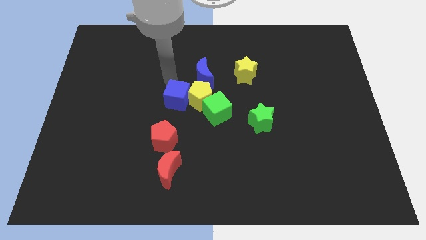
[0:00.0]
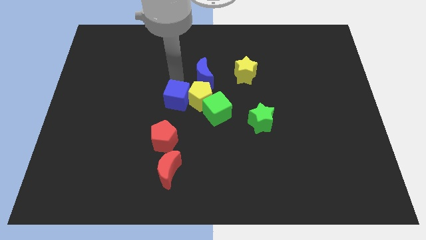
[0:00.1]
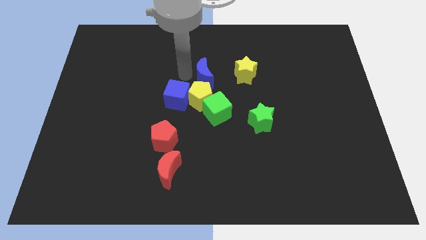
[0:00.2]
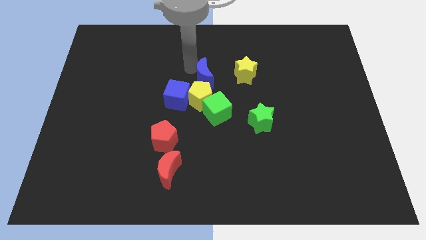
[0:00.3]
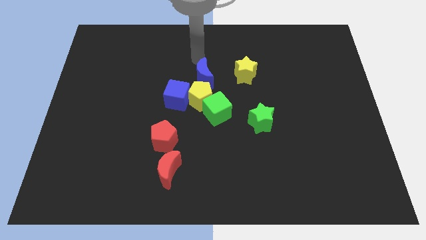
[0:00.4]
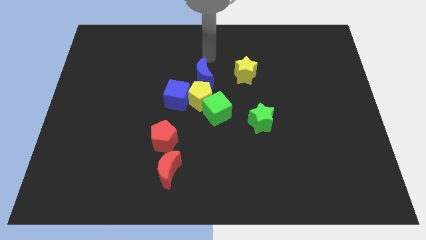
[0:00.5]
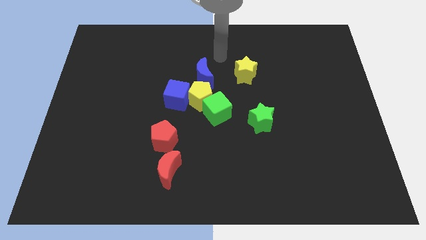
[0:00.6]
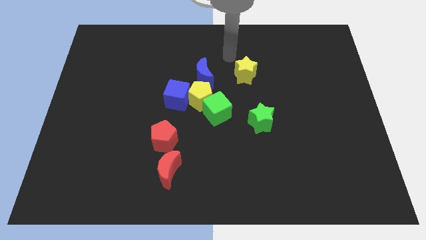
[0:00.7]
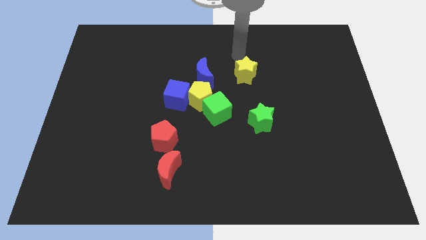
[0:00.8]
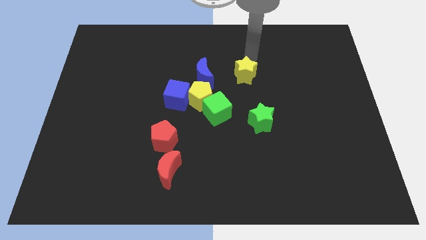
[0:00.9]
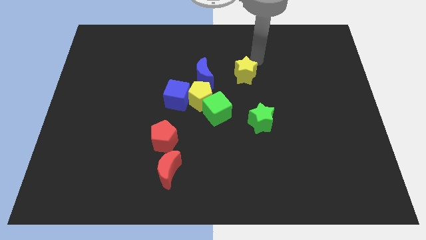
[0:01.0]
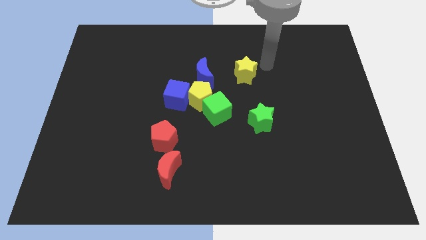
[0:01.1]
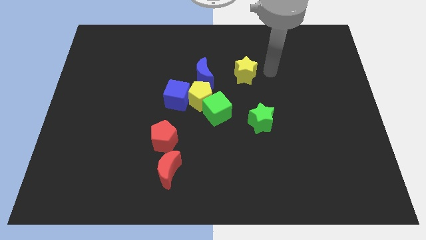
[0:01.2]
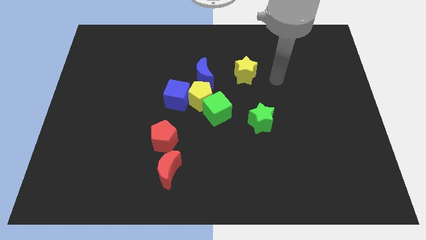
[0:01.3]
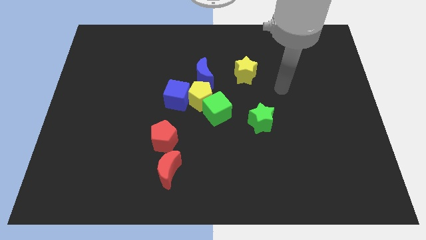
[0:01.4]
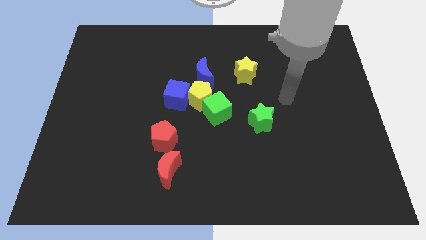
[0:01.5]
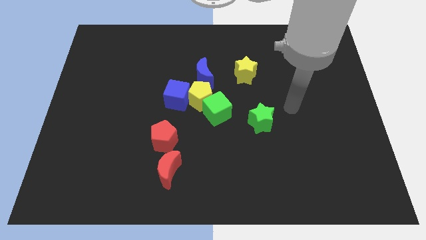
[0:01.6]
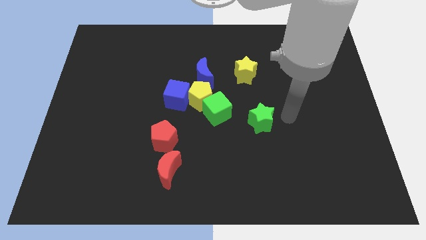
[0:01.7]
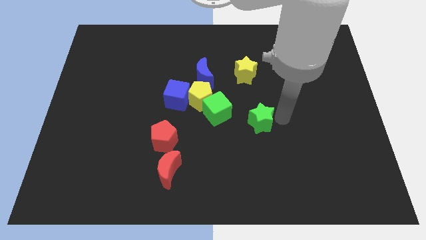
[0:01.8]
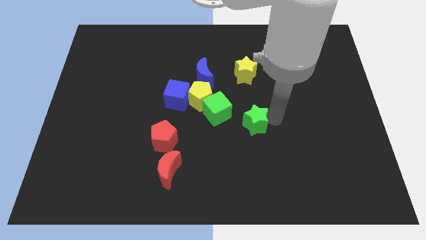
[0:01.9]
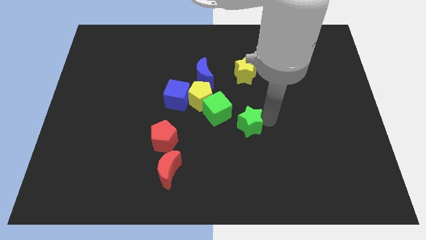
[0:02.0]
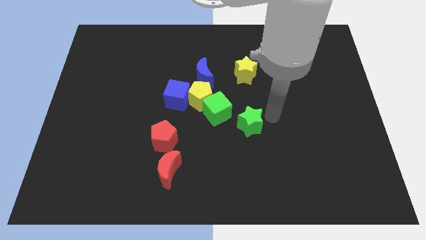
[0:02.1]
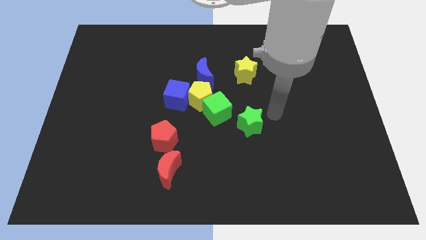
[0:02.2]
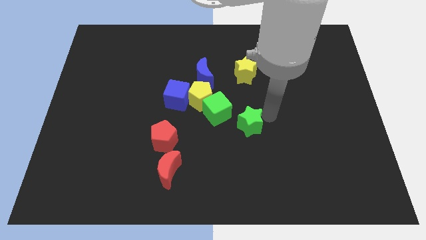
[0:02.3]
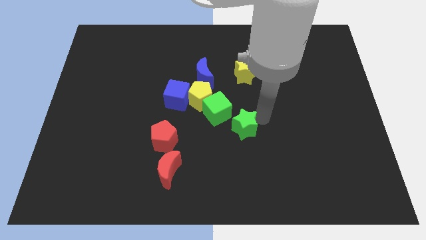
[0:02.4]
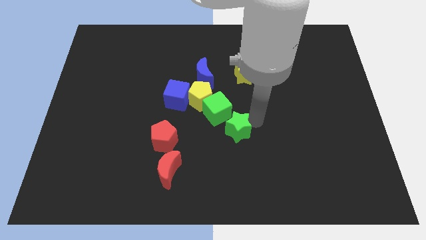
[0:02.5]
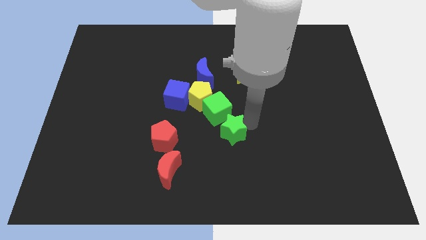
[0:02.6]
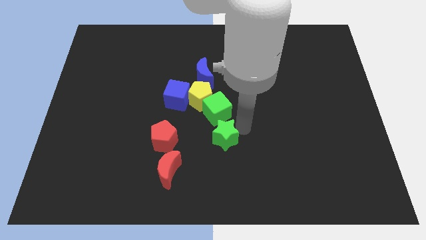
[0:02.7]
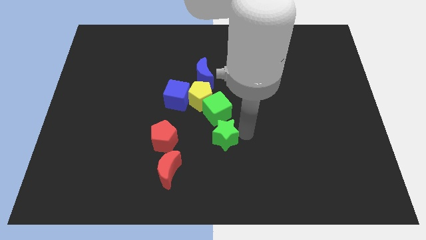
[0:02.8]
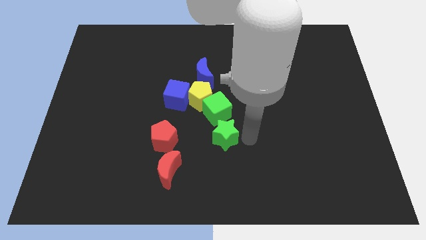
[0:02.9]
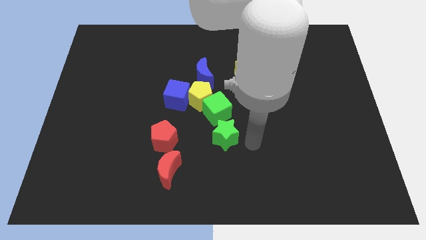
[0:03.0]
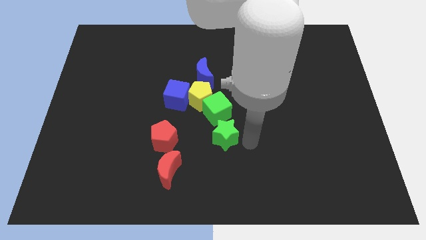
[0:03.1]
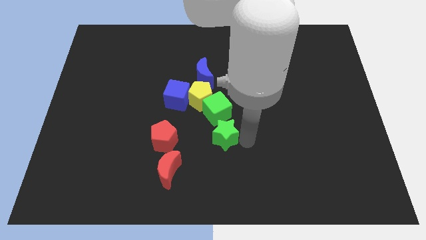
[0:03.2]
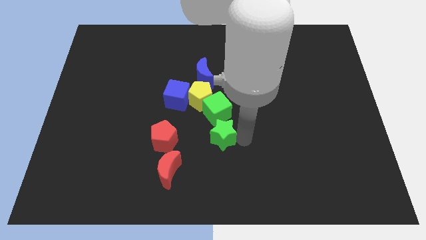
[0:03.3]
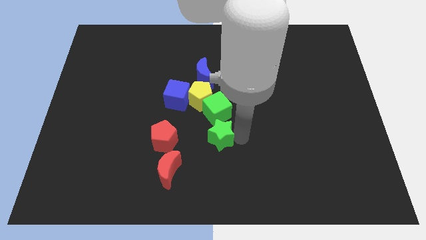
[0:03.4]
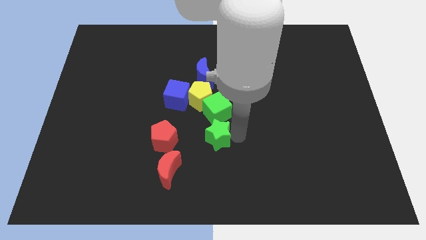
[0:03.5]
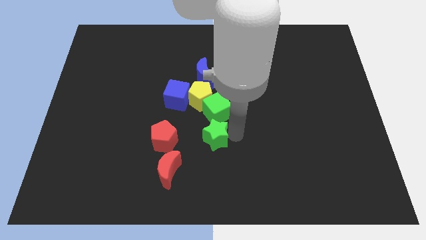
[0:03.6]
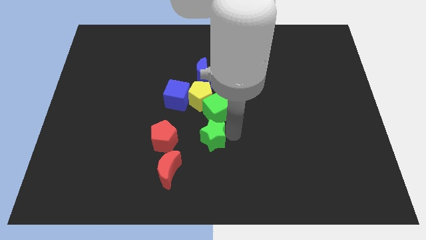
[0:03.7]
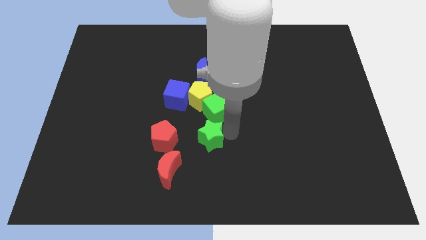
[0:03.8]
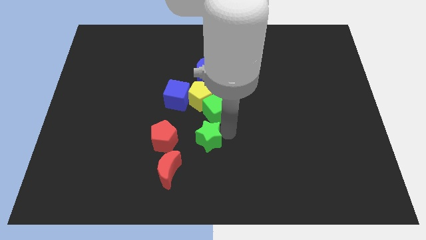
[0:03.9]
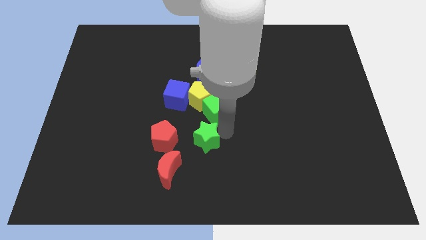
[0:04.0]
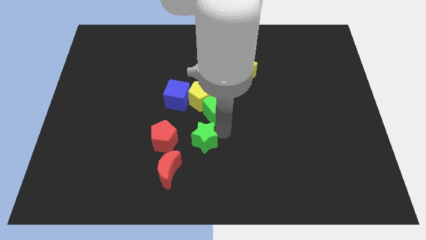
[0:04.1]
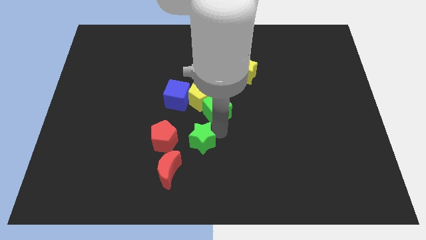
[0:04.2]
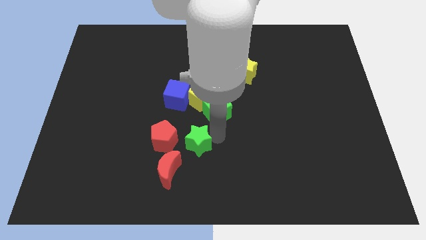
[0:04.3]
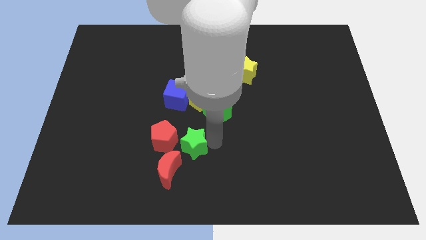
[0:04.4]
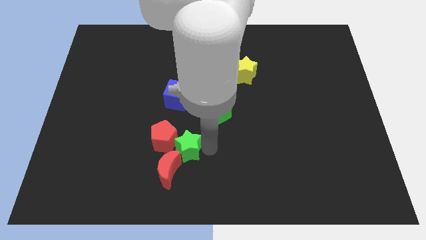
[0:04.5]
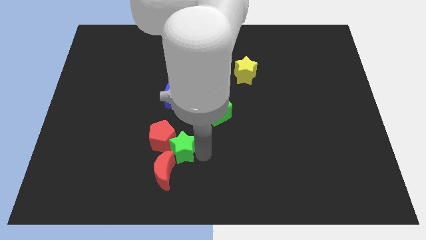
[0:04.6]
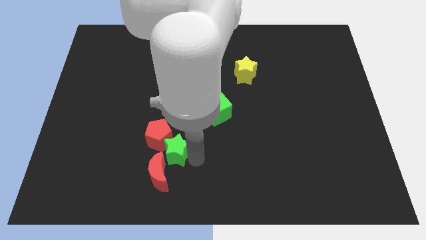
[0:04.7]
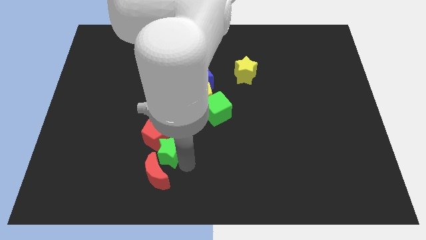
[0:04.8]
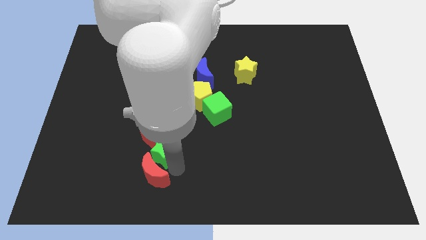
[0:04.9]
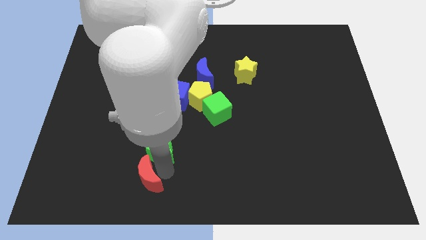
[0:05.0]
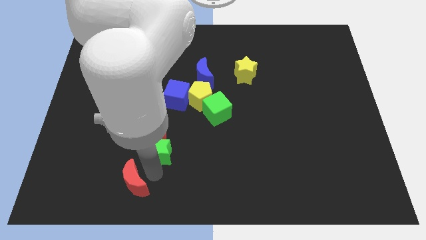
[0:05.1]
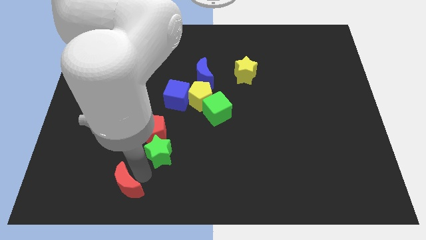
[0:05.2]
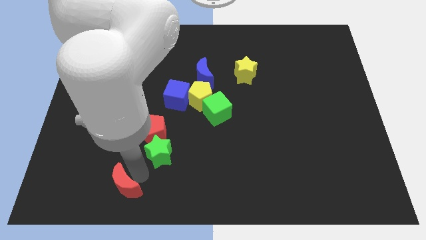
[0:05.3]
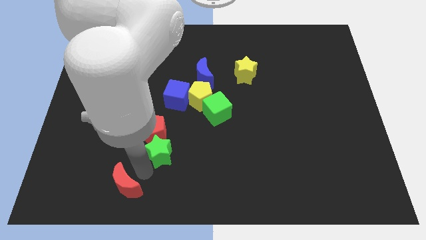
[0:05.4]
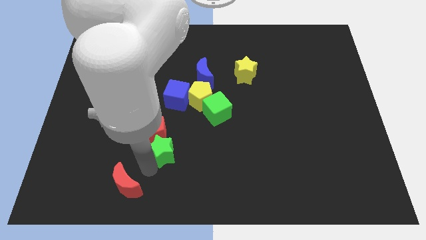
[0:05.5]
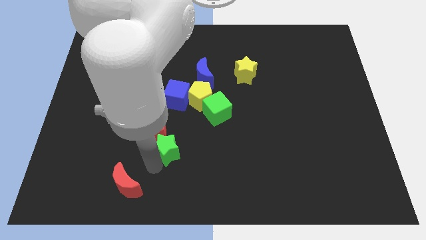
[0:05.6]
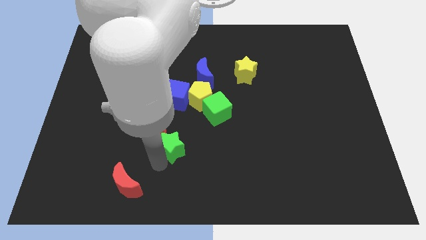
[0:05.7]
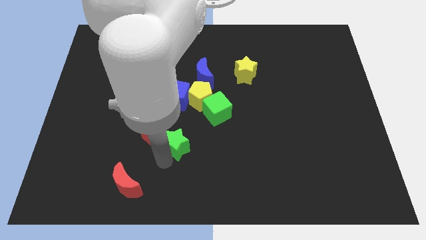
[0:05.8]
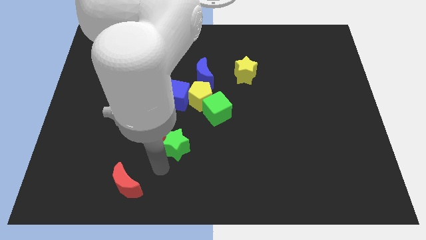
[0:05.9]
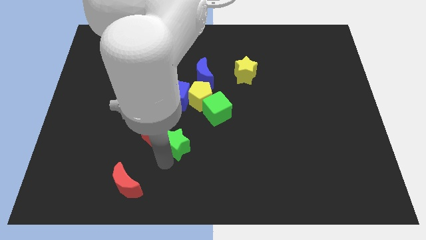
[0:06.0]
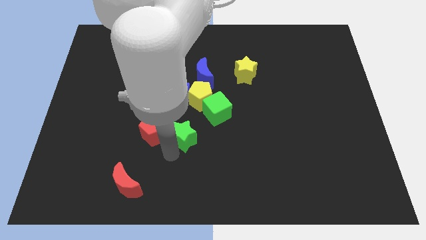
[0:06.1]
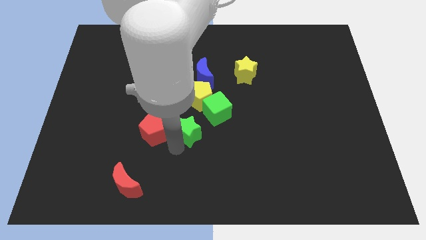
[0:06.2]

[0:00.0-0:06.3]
move the green star to the bottom right of the blue cube
